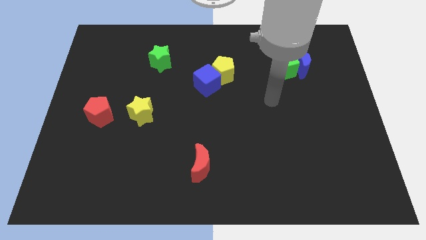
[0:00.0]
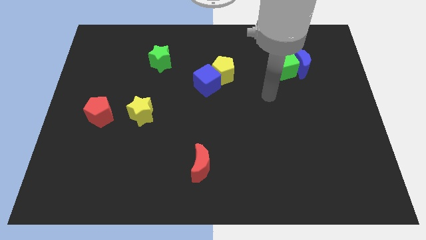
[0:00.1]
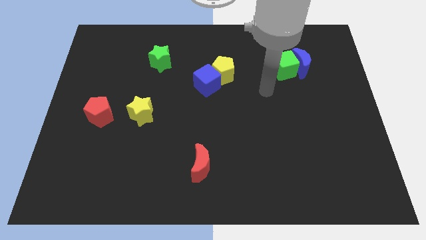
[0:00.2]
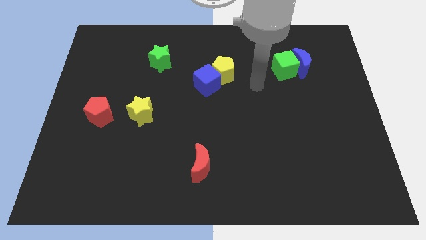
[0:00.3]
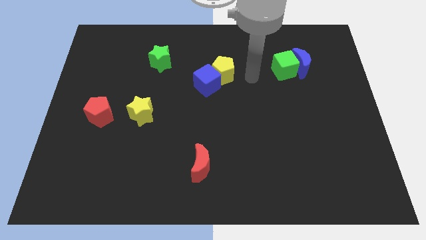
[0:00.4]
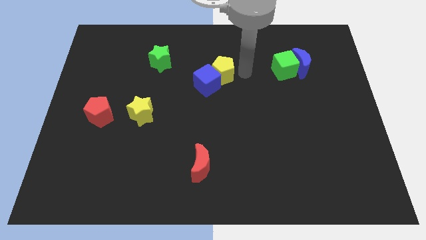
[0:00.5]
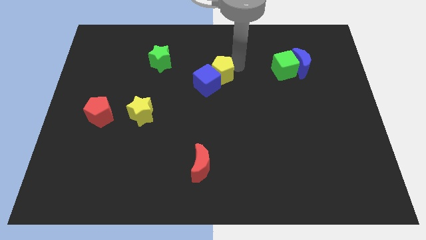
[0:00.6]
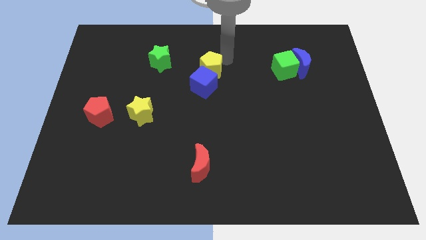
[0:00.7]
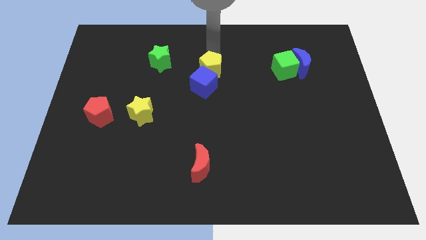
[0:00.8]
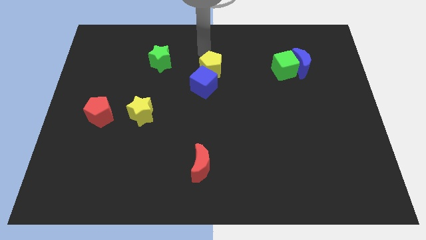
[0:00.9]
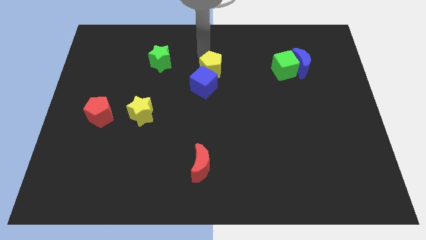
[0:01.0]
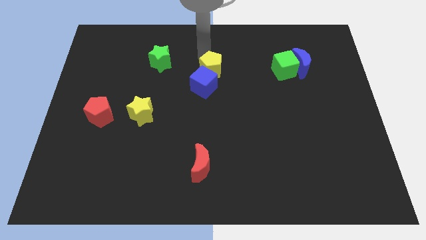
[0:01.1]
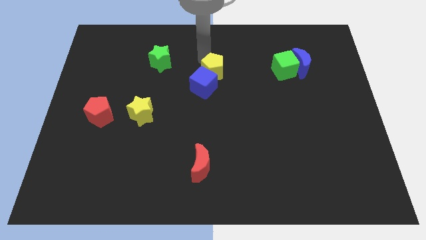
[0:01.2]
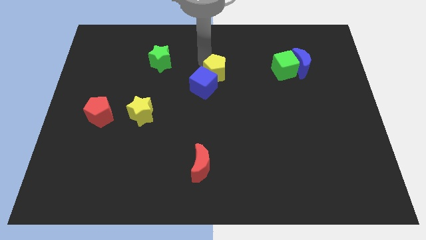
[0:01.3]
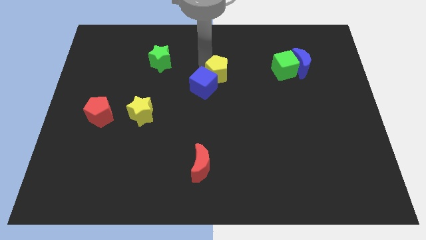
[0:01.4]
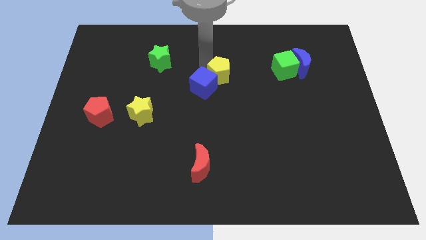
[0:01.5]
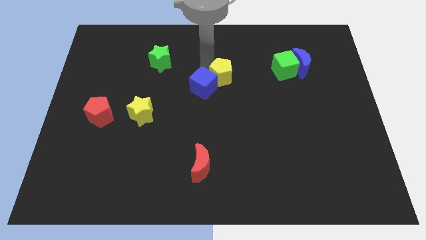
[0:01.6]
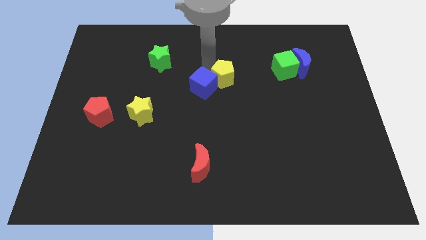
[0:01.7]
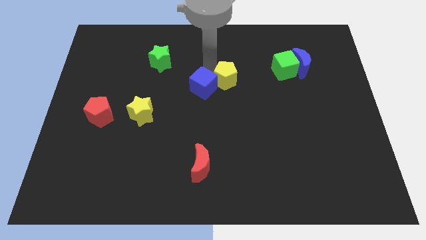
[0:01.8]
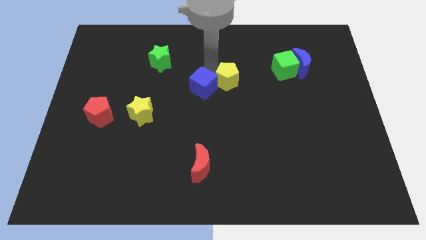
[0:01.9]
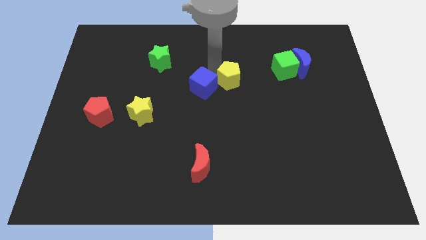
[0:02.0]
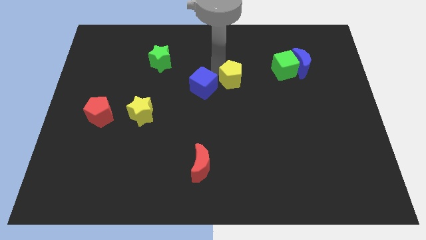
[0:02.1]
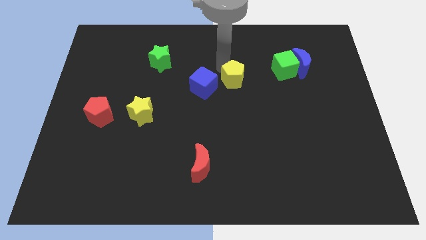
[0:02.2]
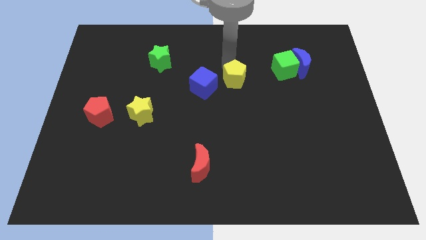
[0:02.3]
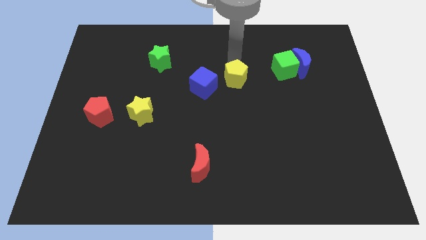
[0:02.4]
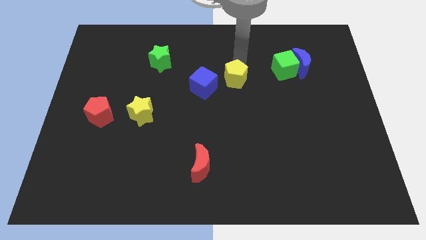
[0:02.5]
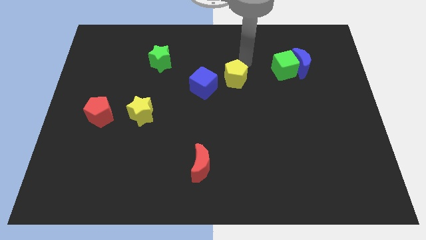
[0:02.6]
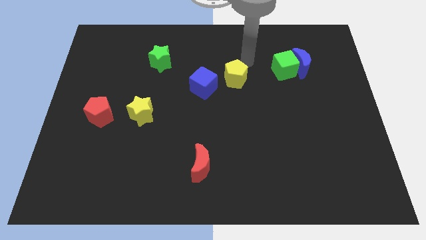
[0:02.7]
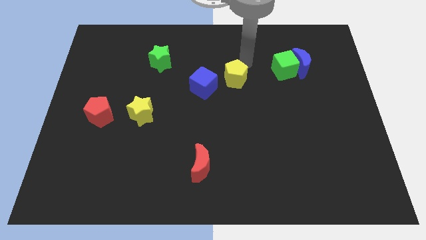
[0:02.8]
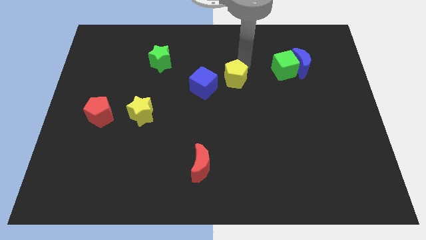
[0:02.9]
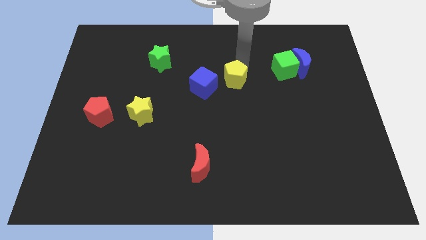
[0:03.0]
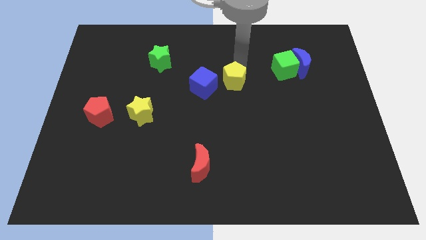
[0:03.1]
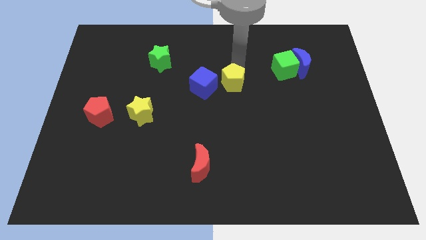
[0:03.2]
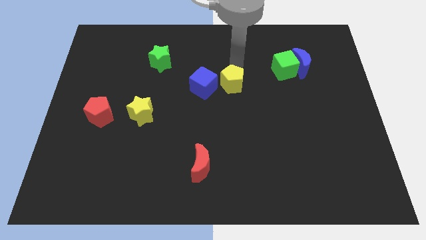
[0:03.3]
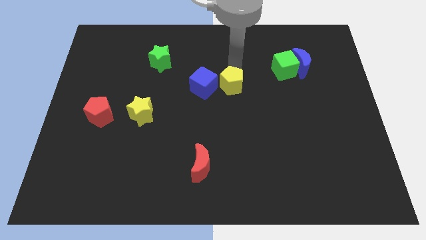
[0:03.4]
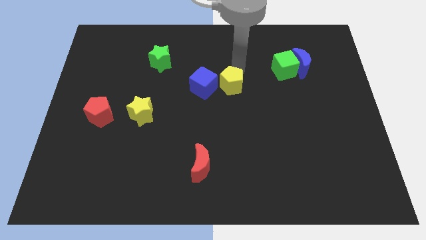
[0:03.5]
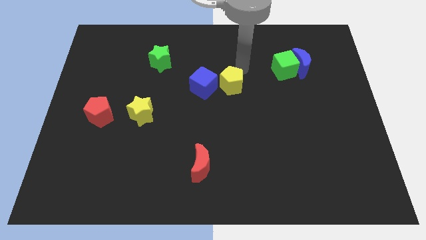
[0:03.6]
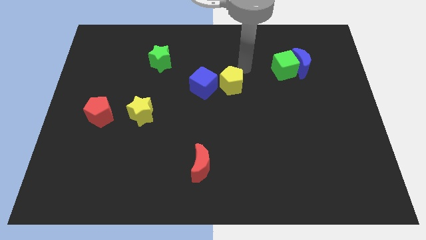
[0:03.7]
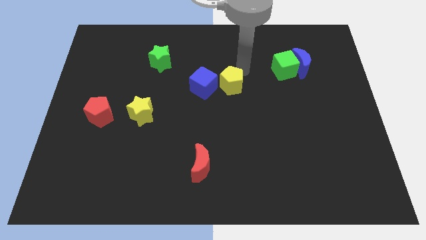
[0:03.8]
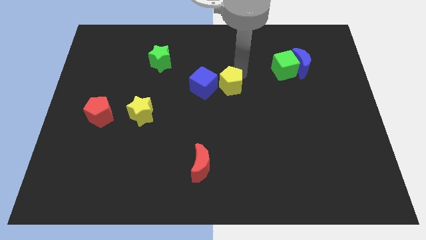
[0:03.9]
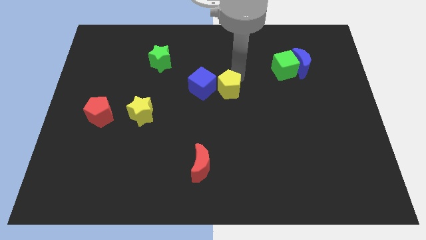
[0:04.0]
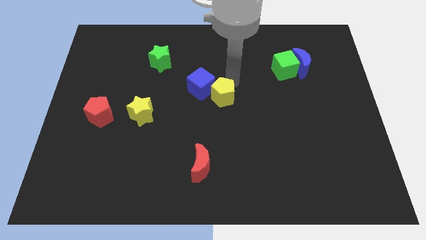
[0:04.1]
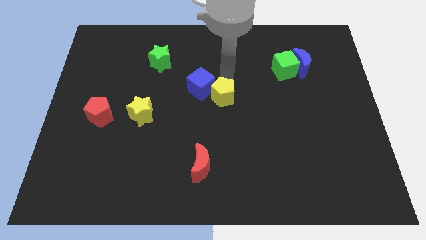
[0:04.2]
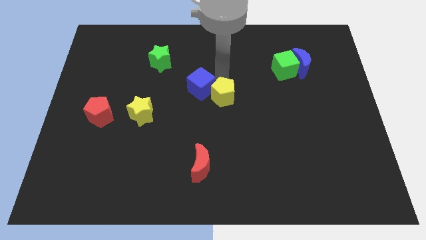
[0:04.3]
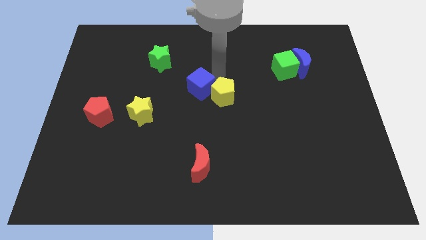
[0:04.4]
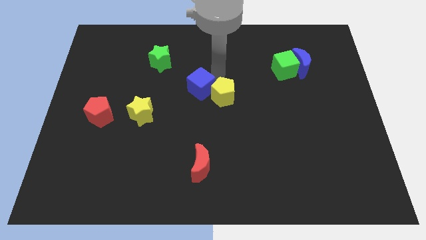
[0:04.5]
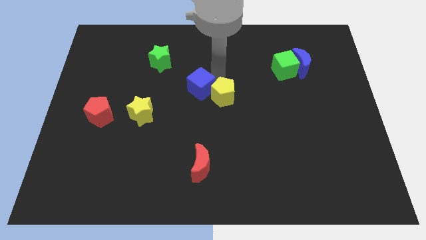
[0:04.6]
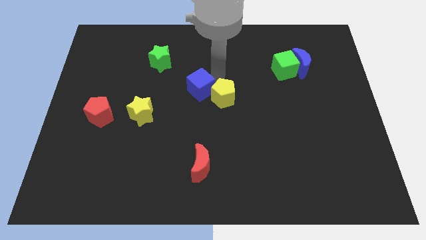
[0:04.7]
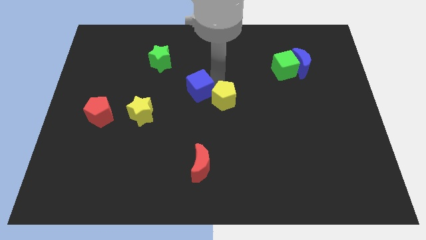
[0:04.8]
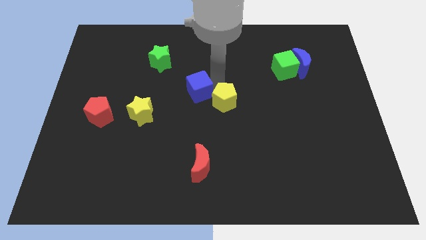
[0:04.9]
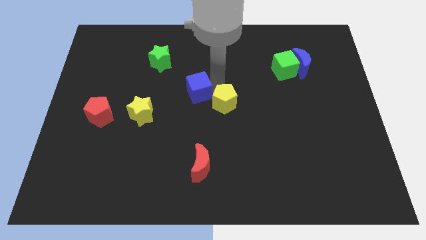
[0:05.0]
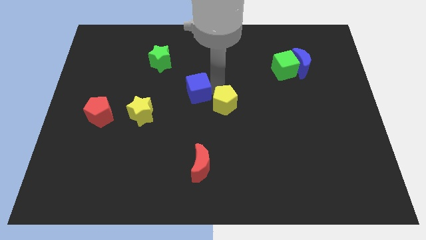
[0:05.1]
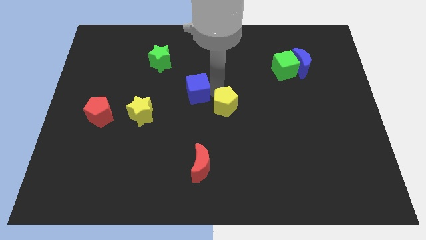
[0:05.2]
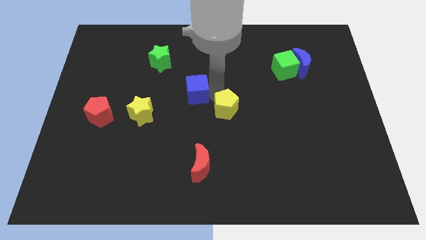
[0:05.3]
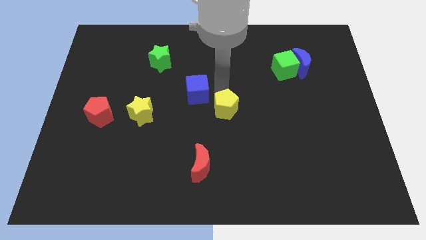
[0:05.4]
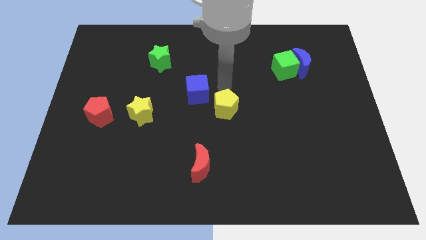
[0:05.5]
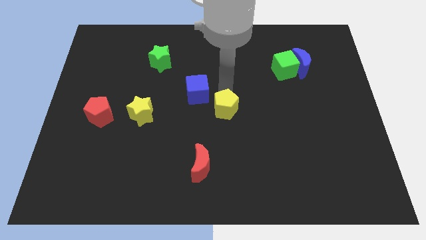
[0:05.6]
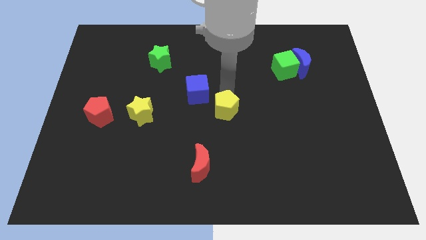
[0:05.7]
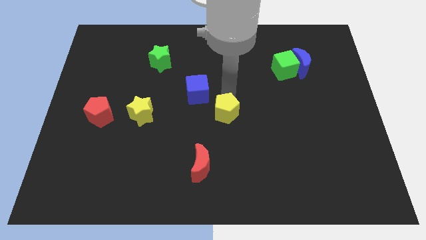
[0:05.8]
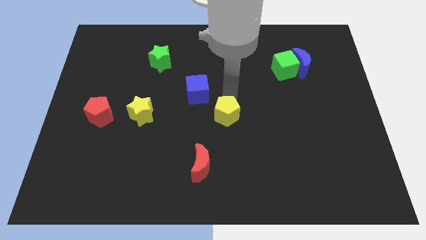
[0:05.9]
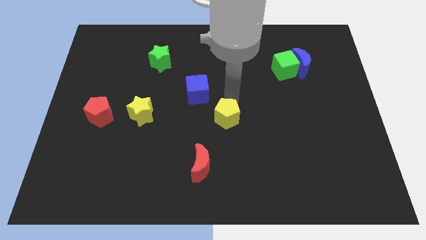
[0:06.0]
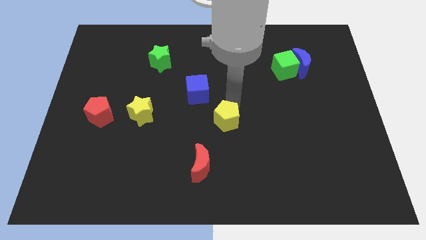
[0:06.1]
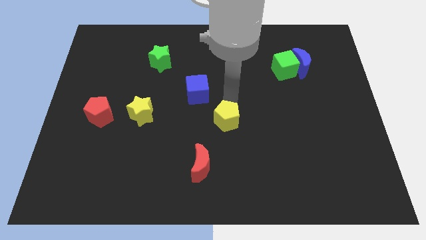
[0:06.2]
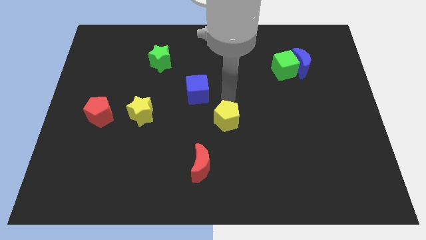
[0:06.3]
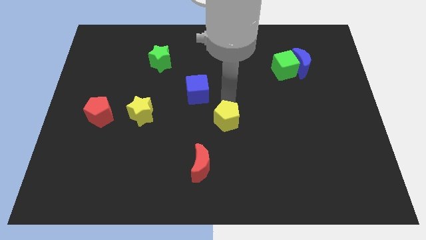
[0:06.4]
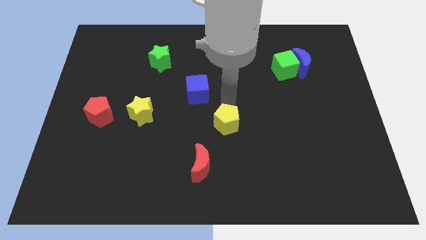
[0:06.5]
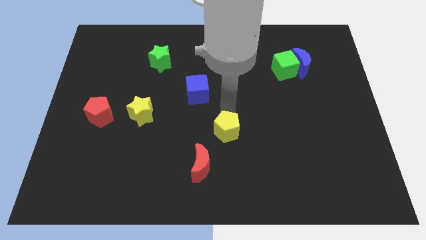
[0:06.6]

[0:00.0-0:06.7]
slide the yellow pentagon to the top right of the red moon

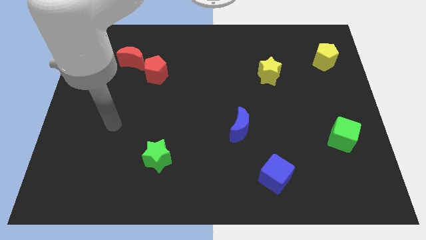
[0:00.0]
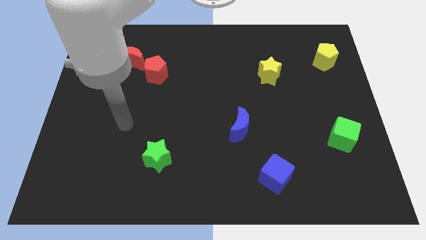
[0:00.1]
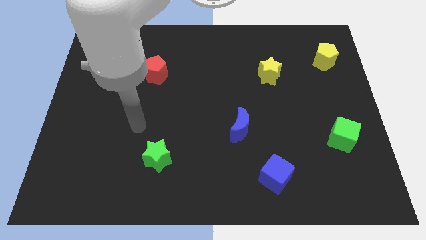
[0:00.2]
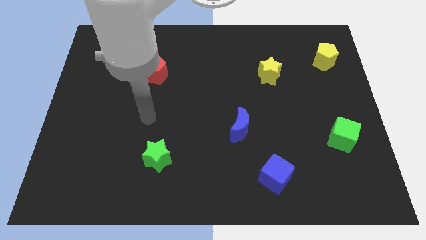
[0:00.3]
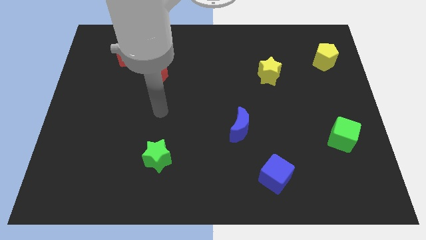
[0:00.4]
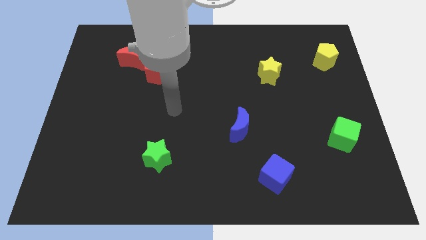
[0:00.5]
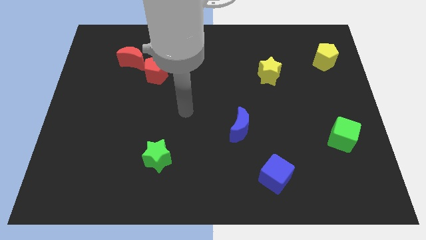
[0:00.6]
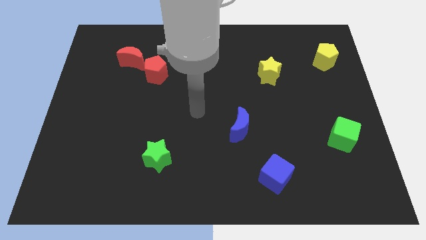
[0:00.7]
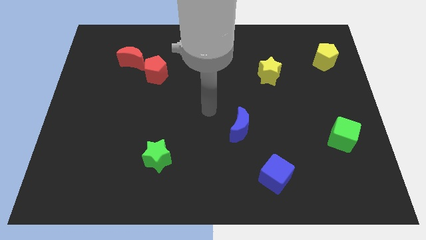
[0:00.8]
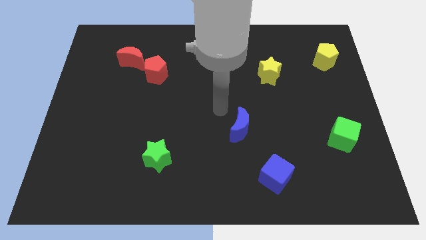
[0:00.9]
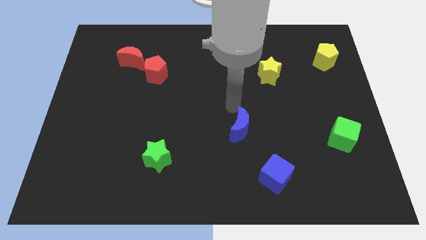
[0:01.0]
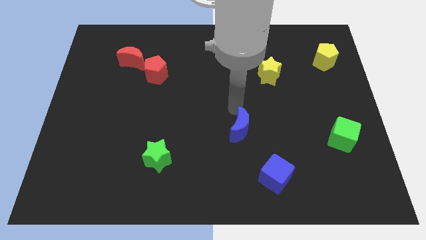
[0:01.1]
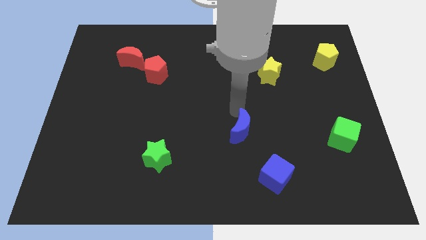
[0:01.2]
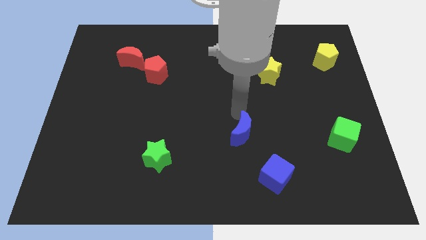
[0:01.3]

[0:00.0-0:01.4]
push the blue moon to the top left side of the blue cube
